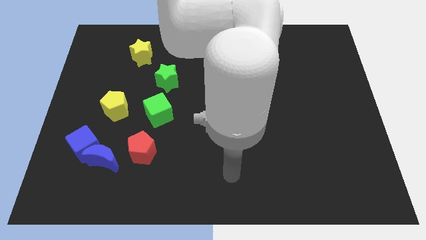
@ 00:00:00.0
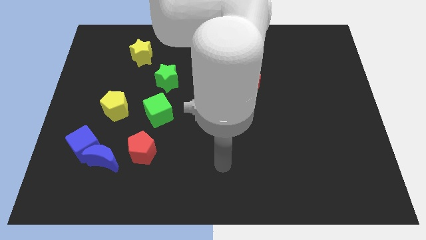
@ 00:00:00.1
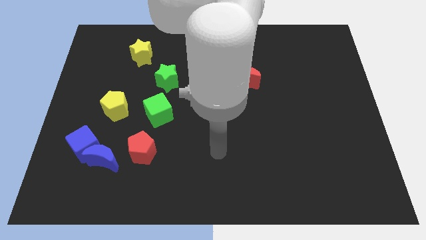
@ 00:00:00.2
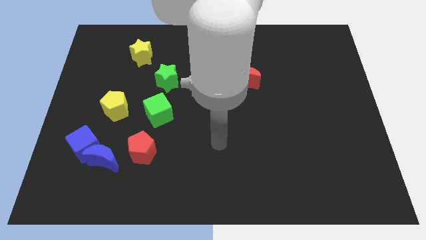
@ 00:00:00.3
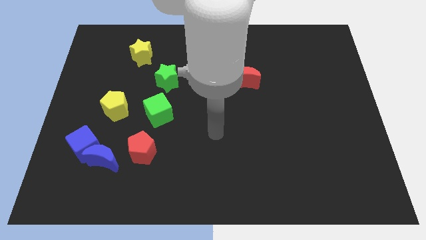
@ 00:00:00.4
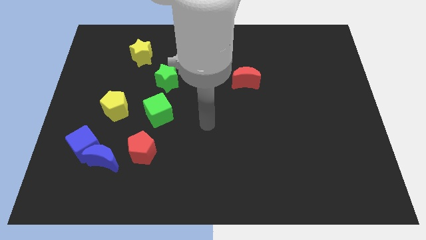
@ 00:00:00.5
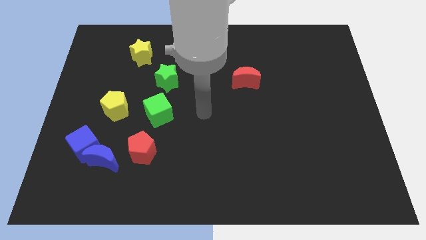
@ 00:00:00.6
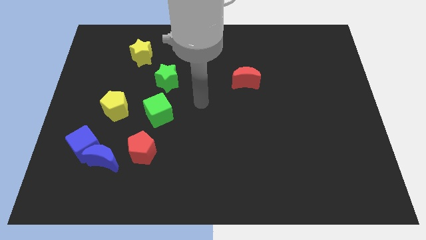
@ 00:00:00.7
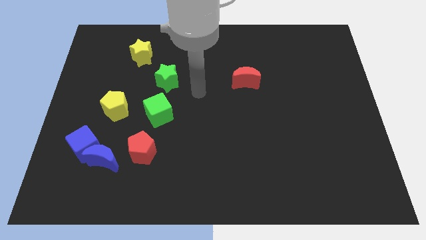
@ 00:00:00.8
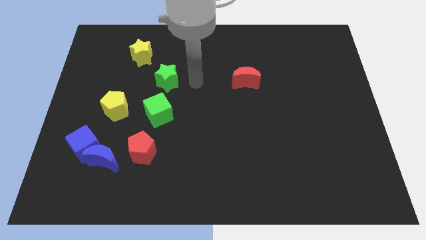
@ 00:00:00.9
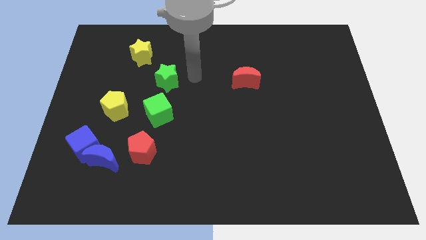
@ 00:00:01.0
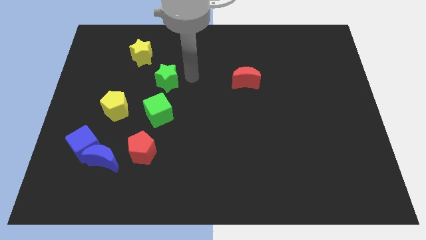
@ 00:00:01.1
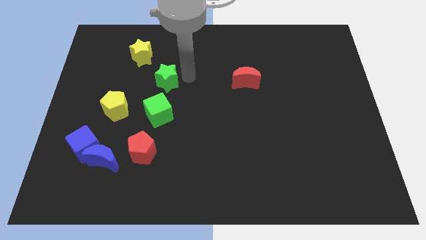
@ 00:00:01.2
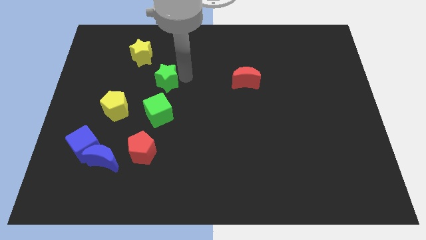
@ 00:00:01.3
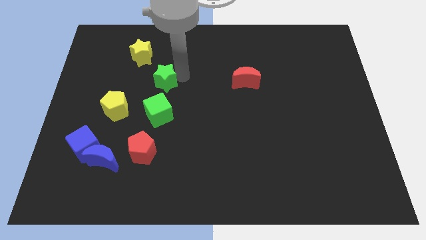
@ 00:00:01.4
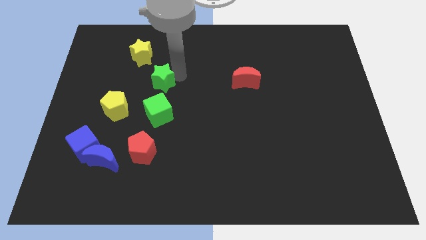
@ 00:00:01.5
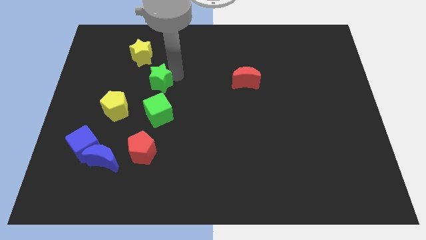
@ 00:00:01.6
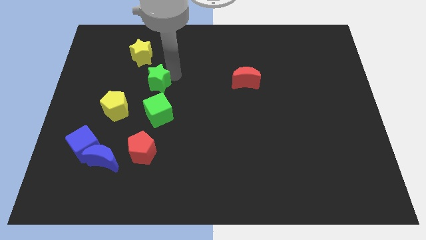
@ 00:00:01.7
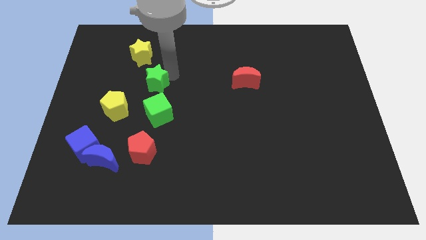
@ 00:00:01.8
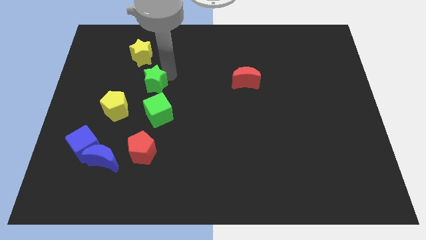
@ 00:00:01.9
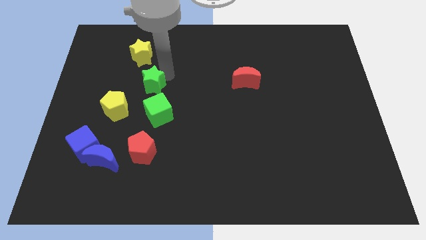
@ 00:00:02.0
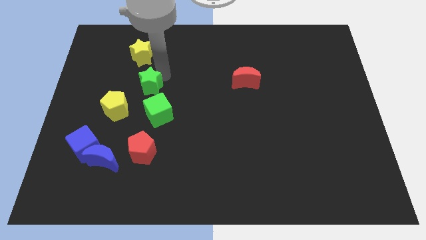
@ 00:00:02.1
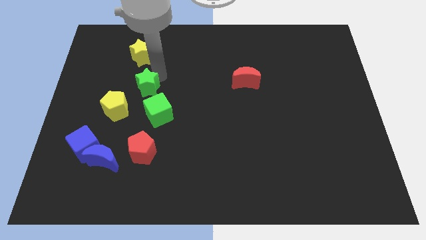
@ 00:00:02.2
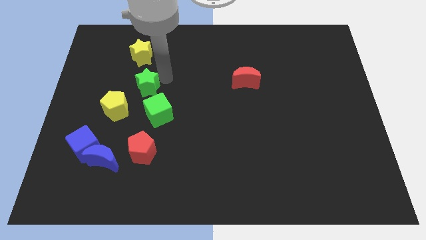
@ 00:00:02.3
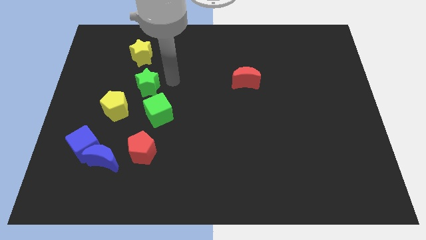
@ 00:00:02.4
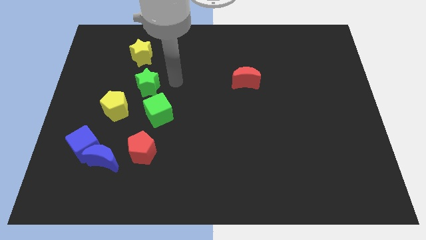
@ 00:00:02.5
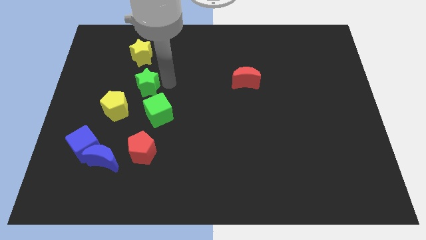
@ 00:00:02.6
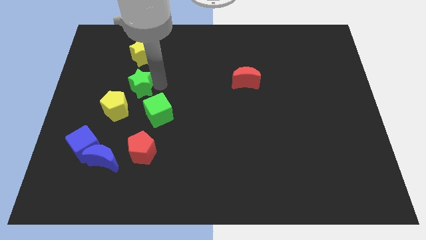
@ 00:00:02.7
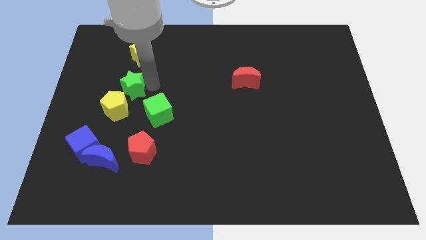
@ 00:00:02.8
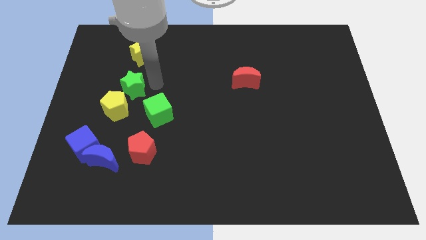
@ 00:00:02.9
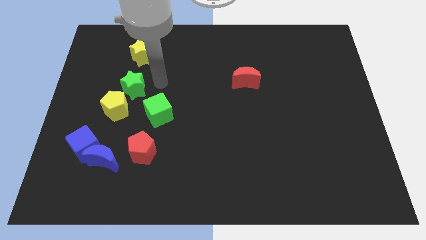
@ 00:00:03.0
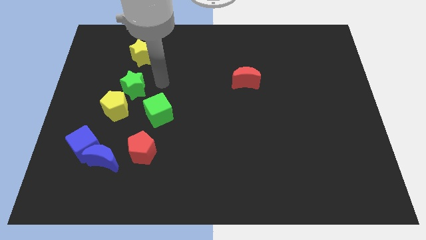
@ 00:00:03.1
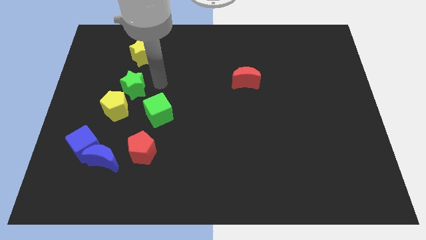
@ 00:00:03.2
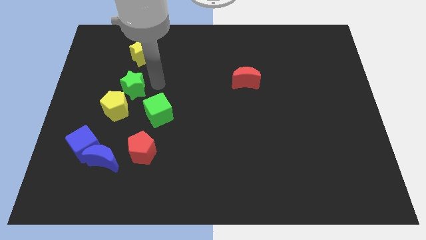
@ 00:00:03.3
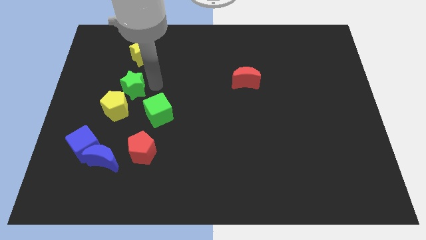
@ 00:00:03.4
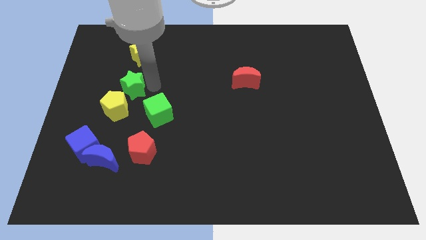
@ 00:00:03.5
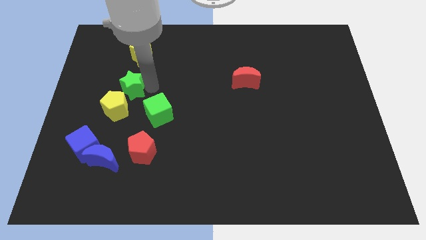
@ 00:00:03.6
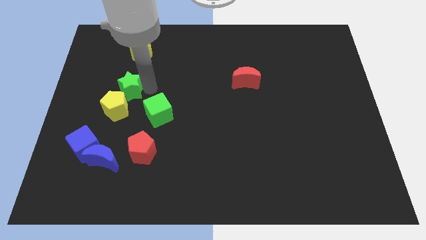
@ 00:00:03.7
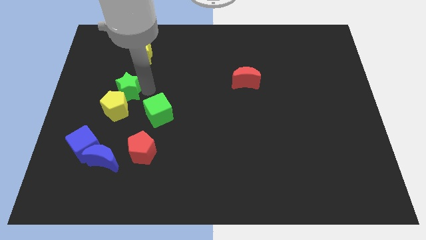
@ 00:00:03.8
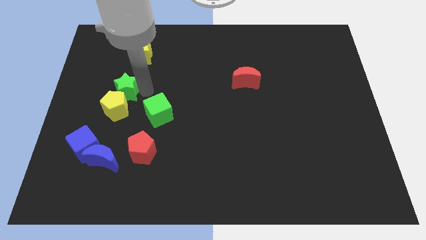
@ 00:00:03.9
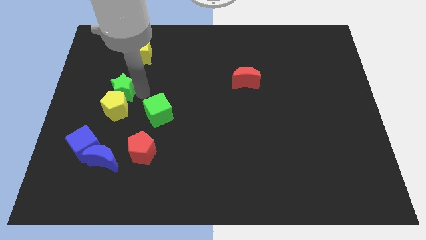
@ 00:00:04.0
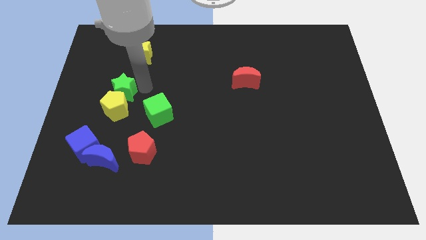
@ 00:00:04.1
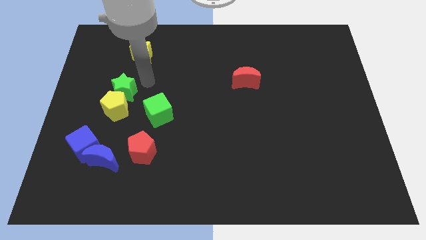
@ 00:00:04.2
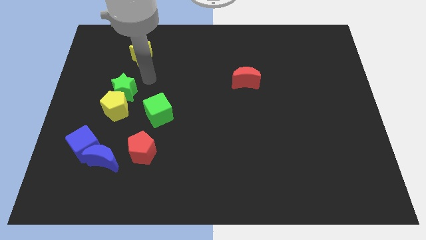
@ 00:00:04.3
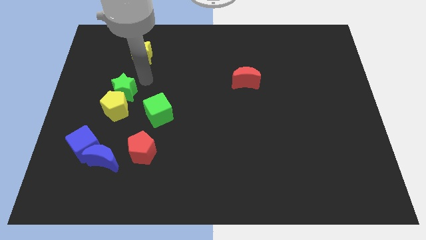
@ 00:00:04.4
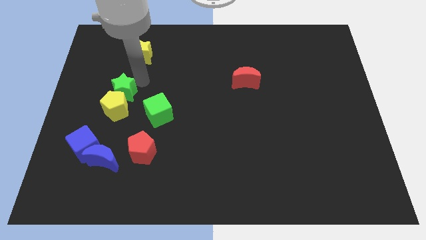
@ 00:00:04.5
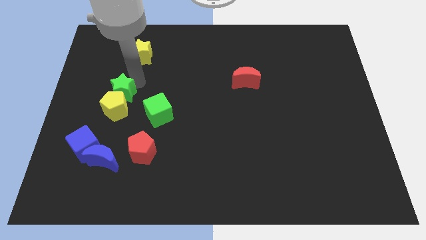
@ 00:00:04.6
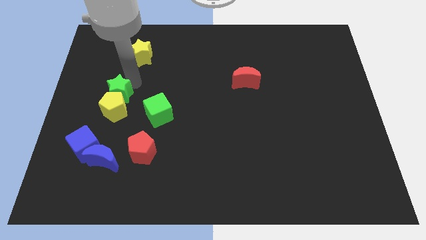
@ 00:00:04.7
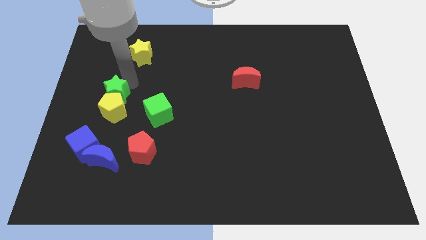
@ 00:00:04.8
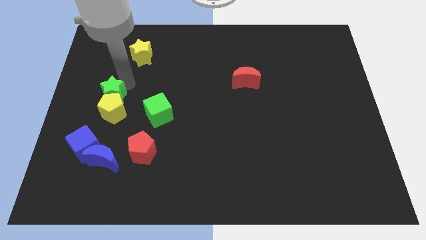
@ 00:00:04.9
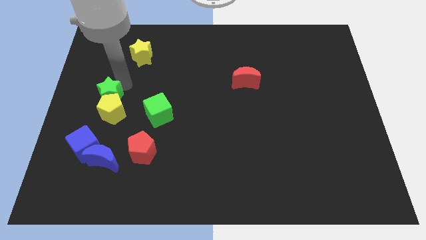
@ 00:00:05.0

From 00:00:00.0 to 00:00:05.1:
move the green star above the blue cube

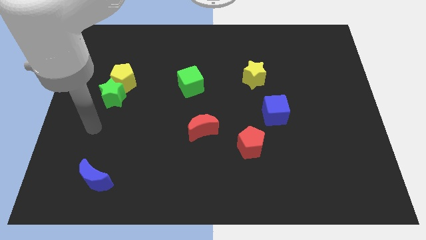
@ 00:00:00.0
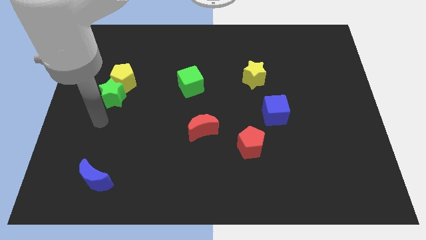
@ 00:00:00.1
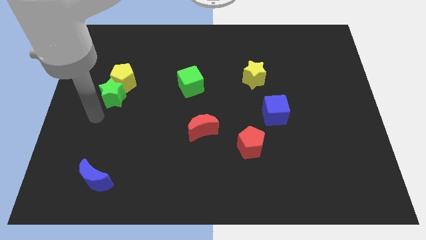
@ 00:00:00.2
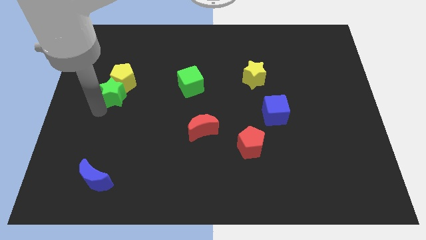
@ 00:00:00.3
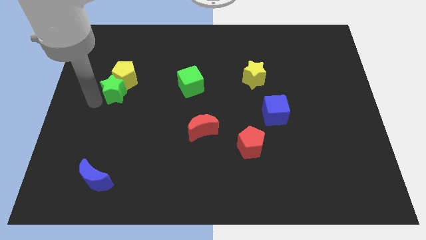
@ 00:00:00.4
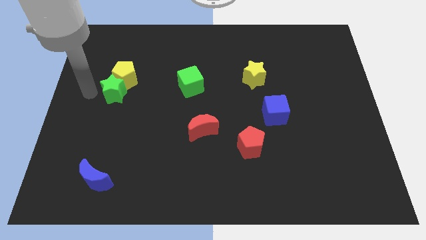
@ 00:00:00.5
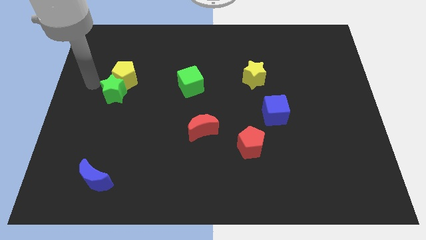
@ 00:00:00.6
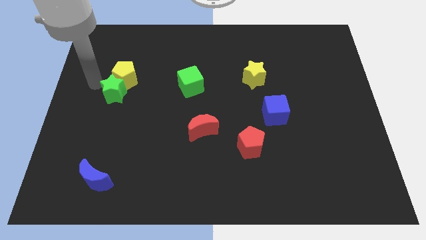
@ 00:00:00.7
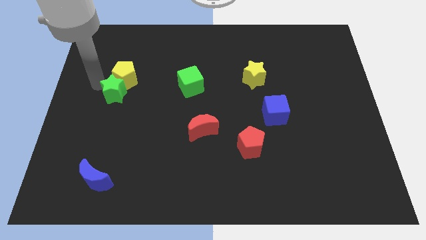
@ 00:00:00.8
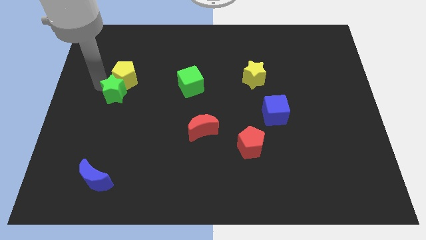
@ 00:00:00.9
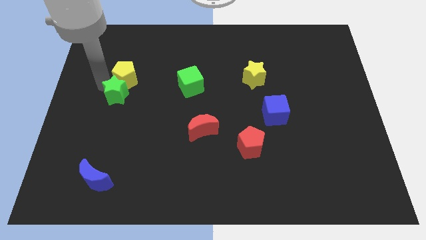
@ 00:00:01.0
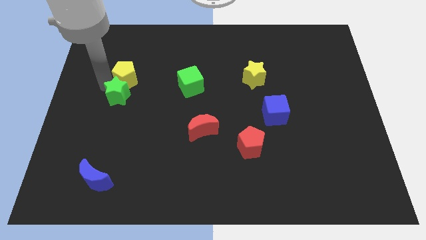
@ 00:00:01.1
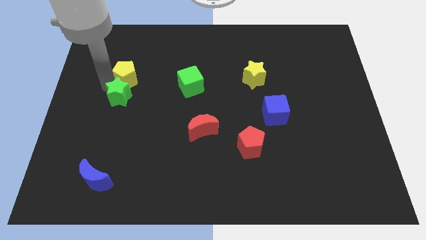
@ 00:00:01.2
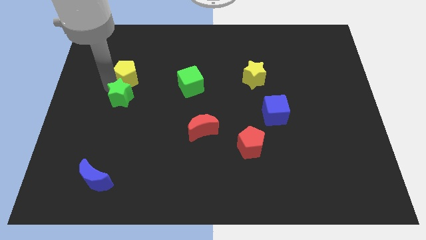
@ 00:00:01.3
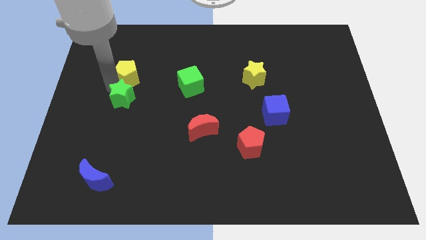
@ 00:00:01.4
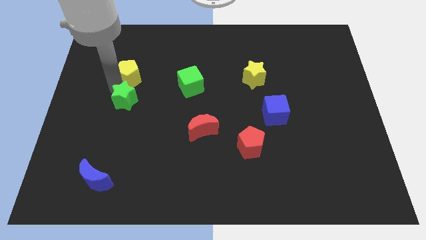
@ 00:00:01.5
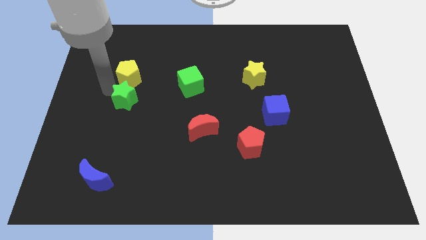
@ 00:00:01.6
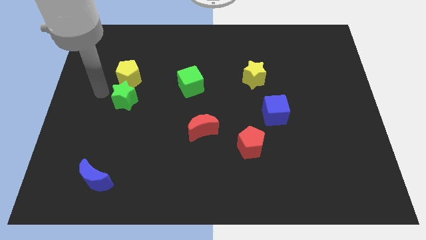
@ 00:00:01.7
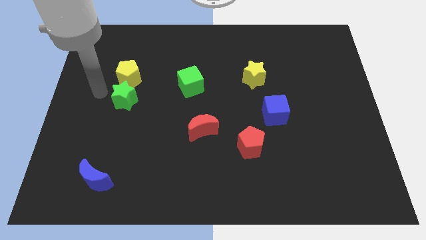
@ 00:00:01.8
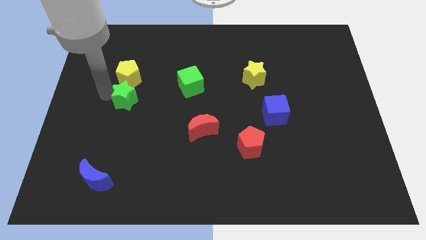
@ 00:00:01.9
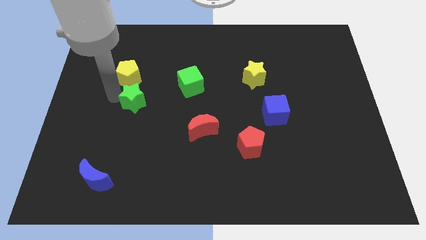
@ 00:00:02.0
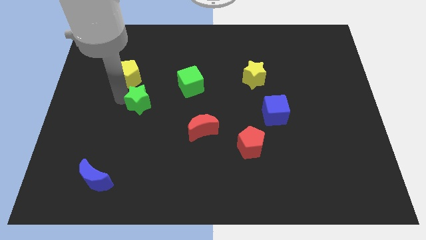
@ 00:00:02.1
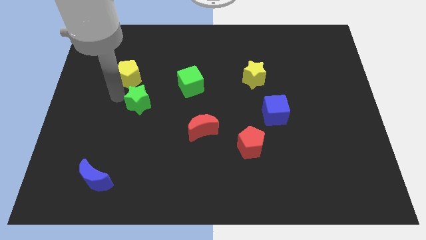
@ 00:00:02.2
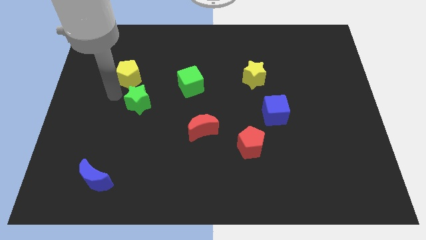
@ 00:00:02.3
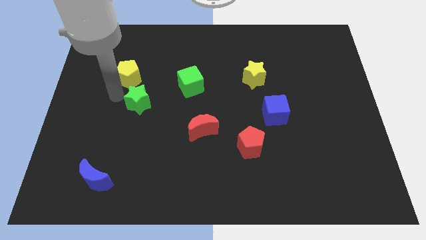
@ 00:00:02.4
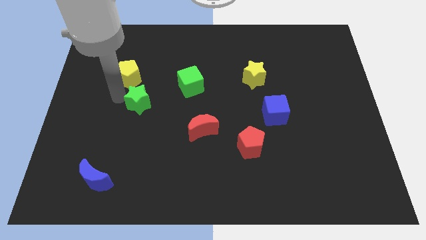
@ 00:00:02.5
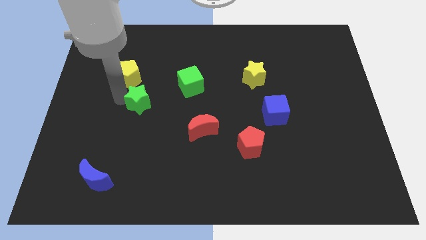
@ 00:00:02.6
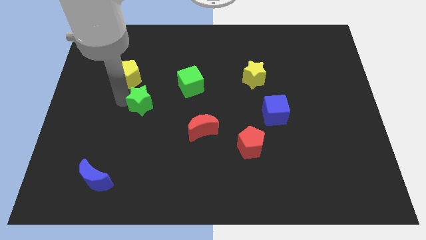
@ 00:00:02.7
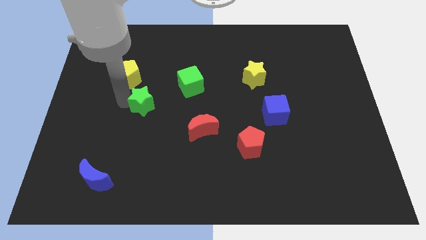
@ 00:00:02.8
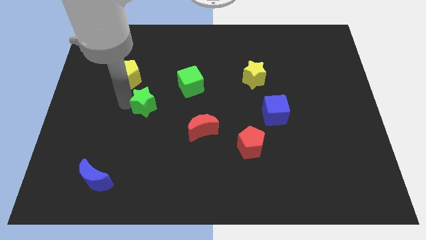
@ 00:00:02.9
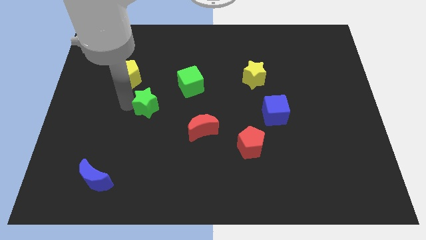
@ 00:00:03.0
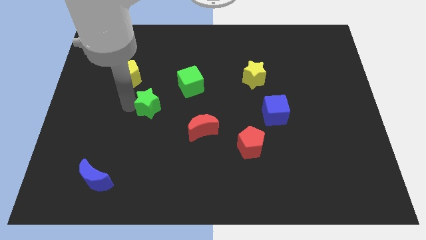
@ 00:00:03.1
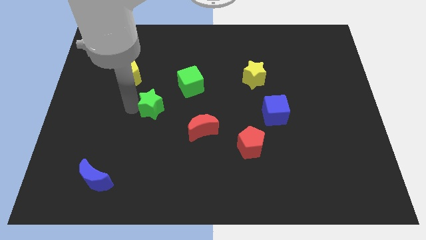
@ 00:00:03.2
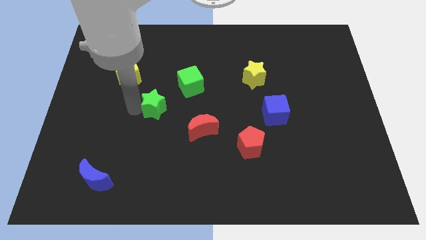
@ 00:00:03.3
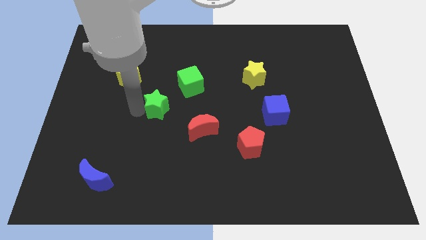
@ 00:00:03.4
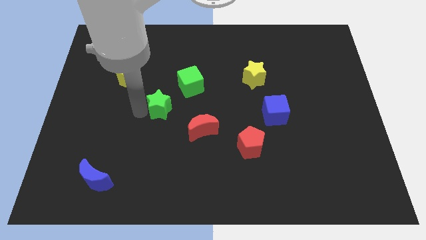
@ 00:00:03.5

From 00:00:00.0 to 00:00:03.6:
put the green star to the top left side of the red moon
